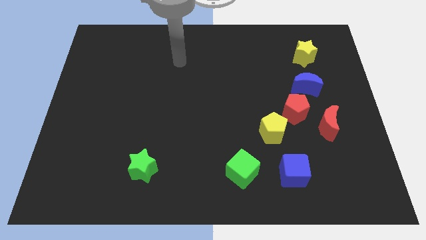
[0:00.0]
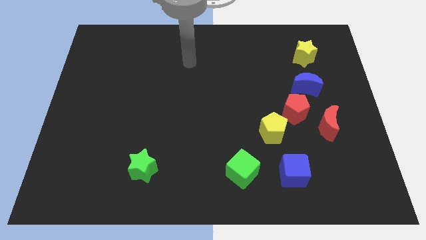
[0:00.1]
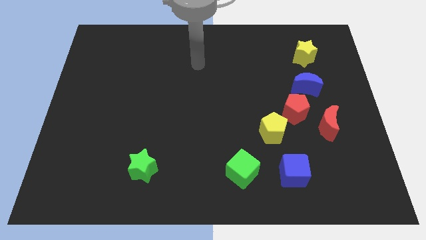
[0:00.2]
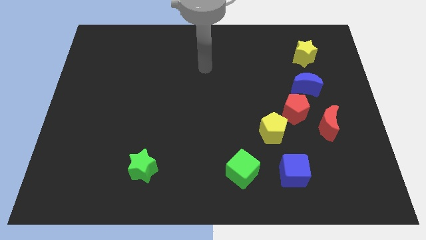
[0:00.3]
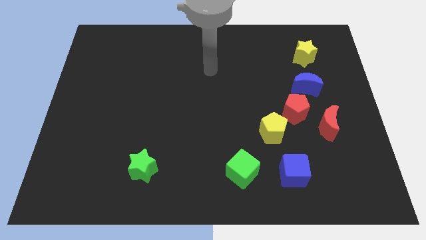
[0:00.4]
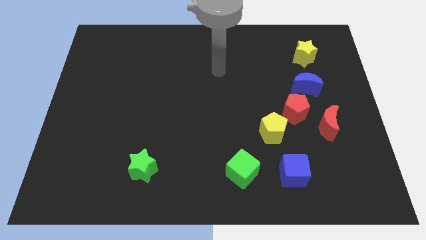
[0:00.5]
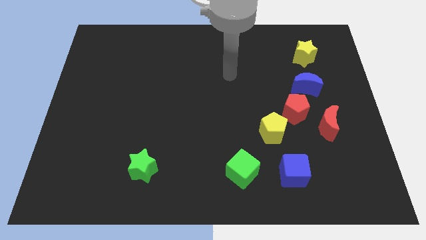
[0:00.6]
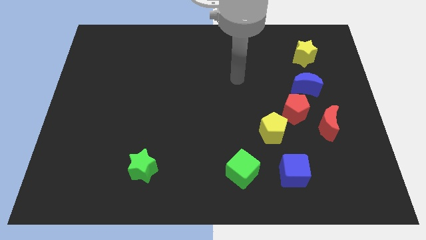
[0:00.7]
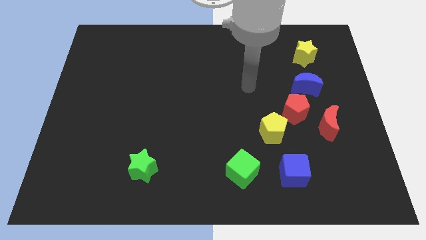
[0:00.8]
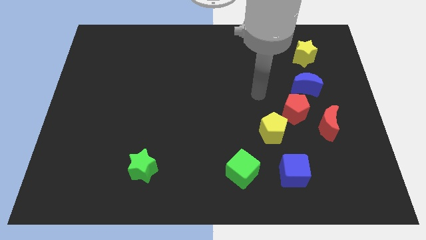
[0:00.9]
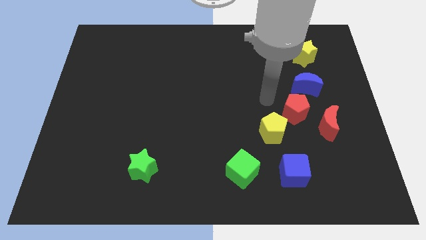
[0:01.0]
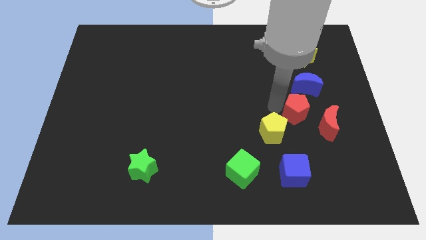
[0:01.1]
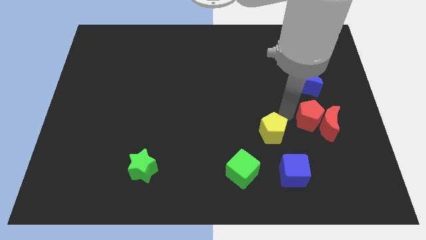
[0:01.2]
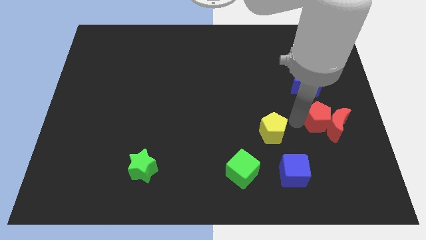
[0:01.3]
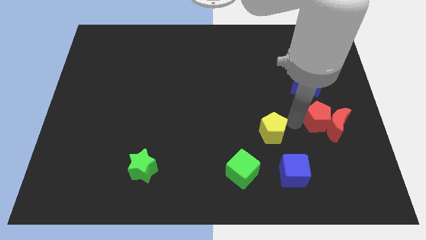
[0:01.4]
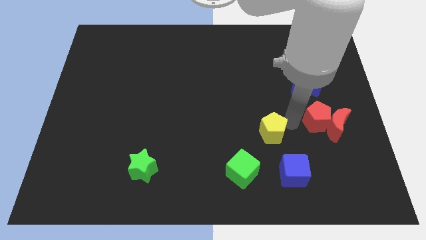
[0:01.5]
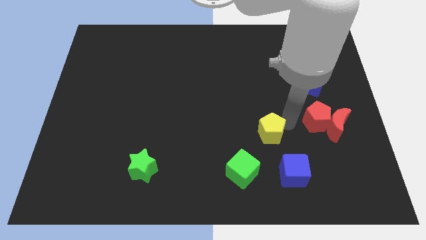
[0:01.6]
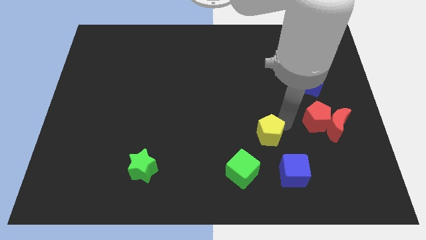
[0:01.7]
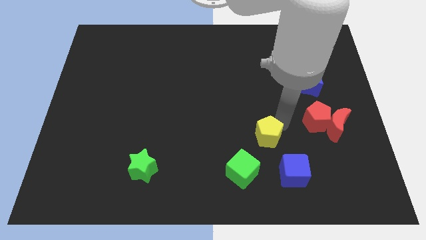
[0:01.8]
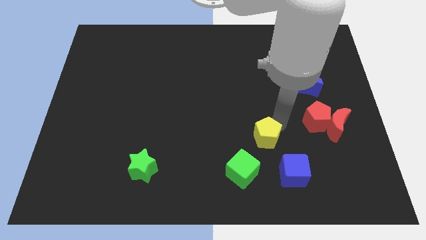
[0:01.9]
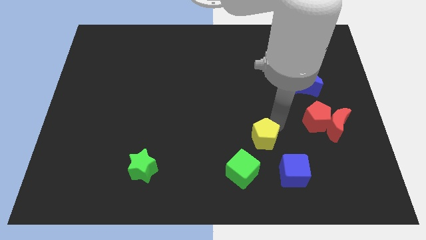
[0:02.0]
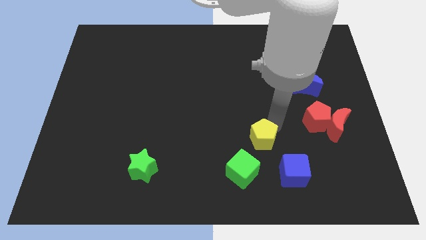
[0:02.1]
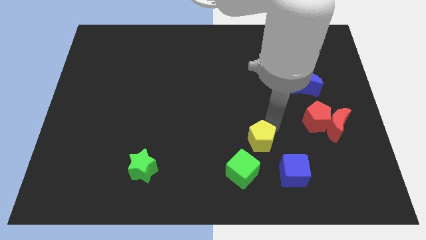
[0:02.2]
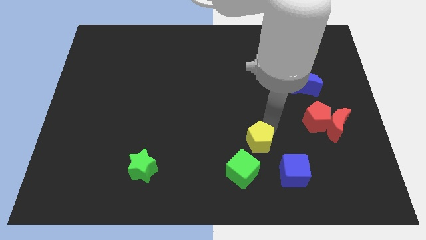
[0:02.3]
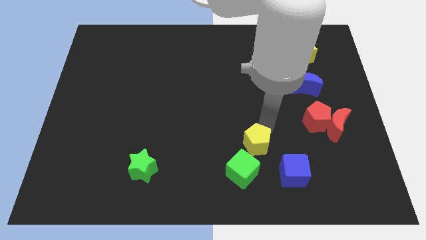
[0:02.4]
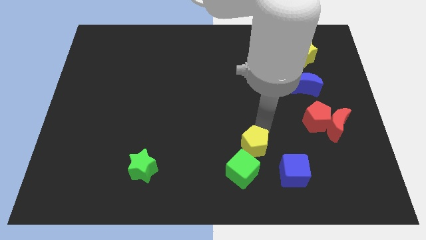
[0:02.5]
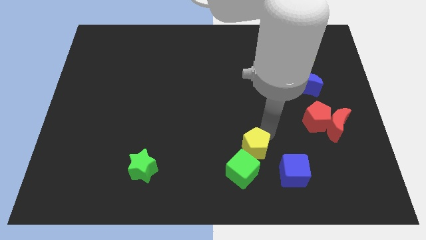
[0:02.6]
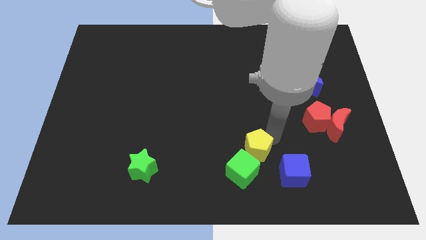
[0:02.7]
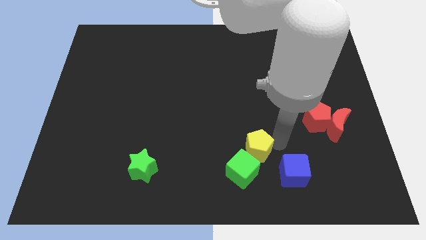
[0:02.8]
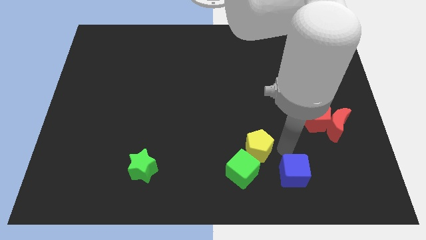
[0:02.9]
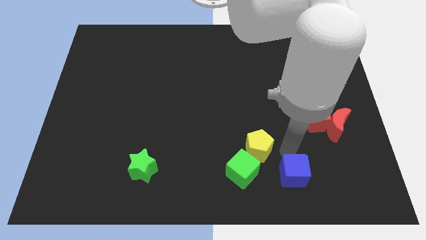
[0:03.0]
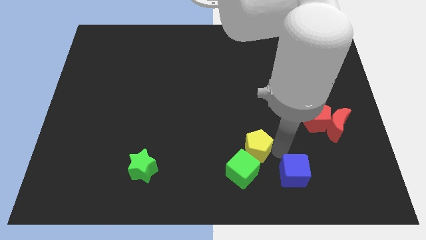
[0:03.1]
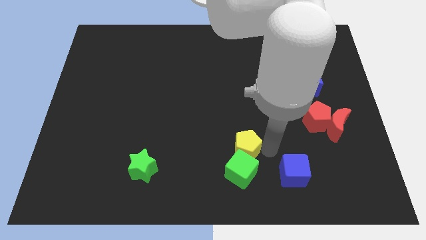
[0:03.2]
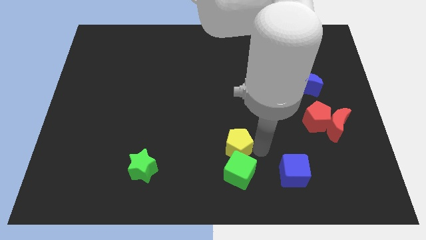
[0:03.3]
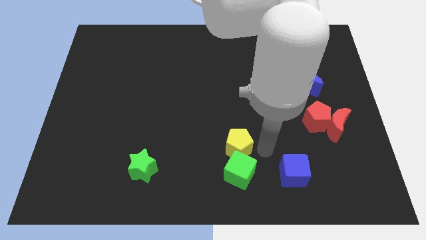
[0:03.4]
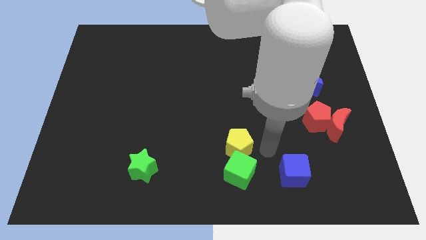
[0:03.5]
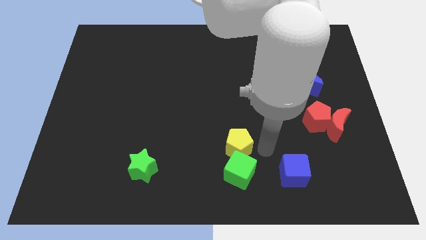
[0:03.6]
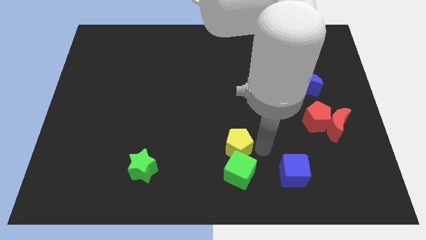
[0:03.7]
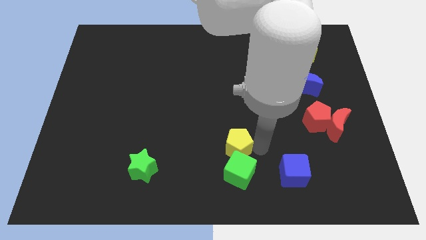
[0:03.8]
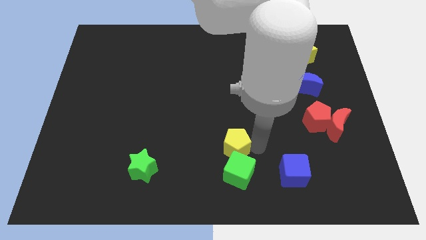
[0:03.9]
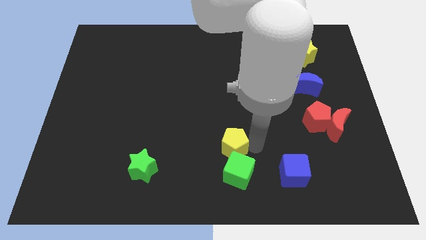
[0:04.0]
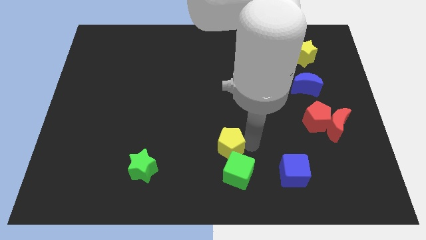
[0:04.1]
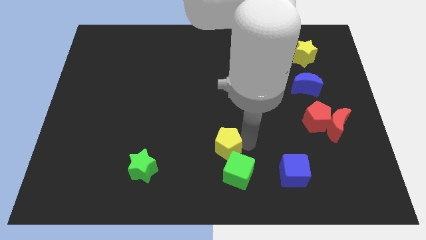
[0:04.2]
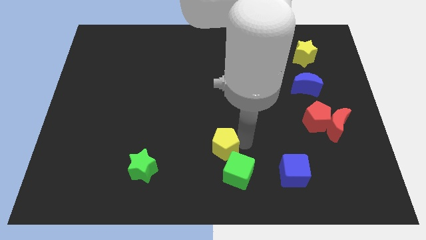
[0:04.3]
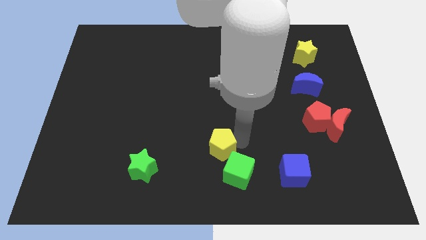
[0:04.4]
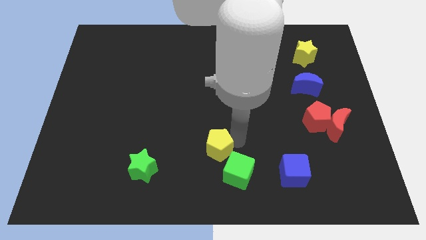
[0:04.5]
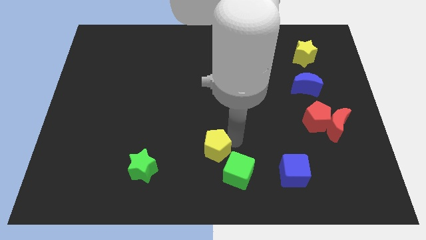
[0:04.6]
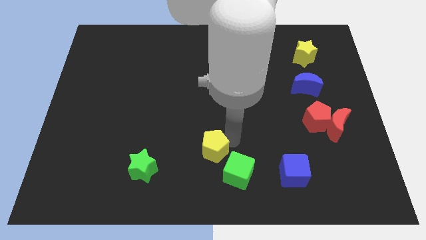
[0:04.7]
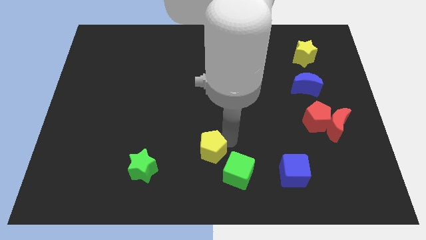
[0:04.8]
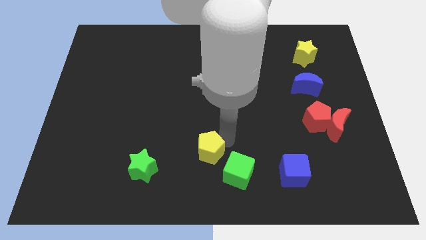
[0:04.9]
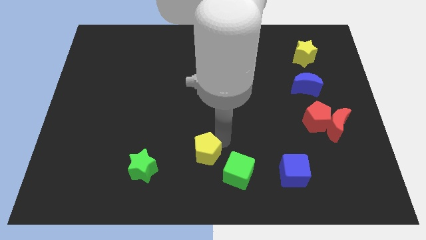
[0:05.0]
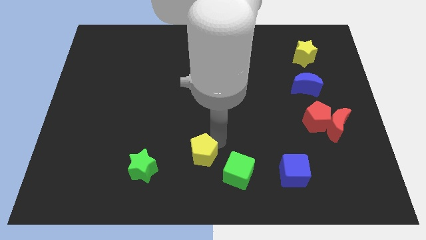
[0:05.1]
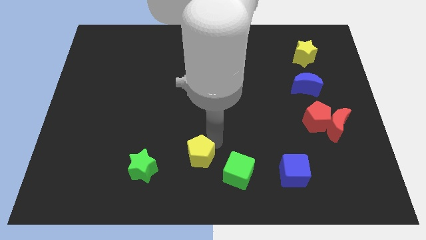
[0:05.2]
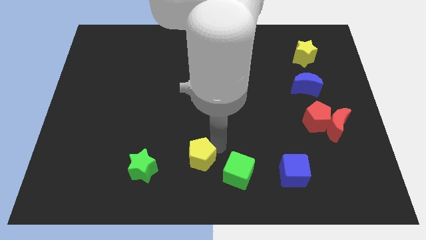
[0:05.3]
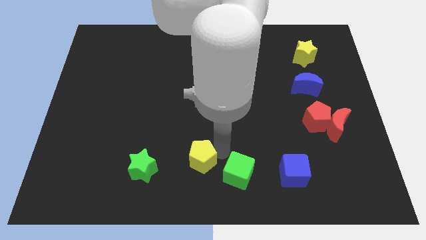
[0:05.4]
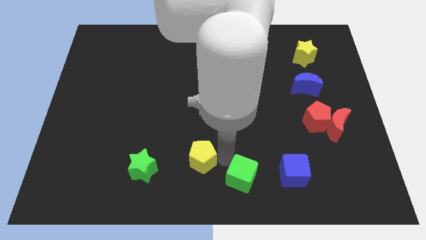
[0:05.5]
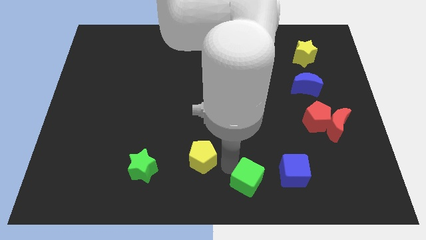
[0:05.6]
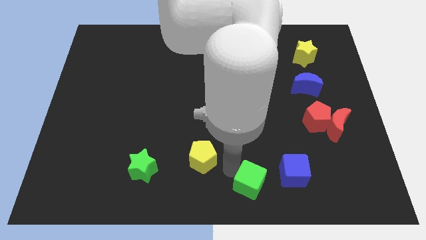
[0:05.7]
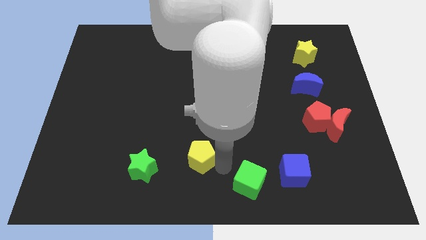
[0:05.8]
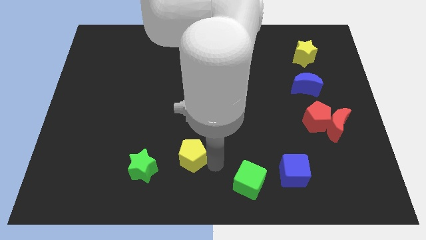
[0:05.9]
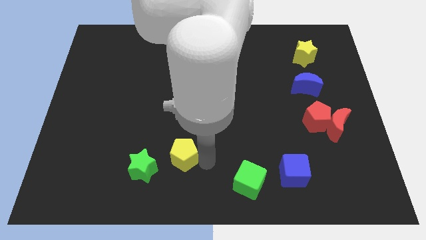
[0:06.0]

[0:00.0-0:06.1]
push the yellow pentagon to the top right of the green star
